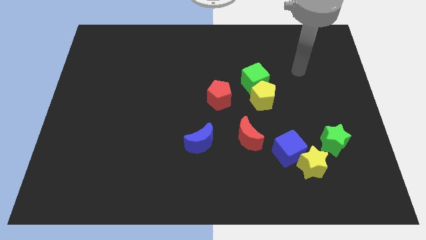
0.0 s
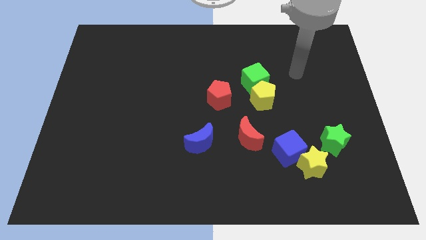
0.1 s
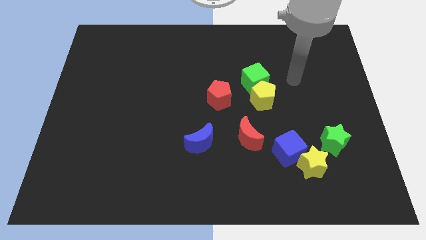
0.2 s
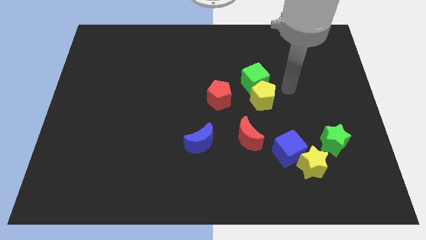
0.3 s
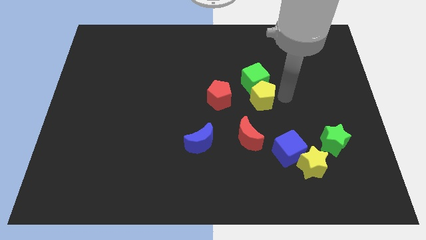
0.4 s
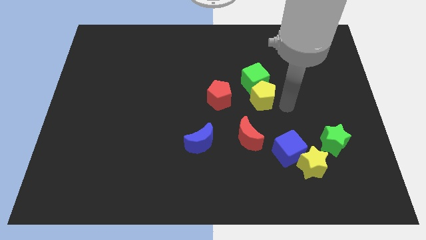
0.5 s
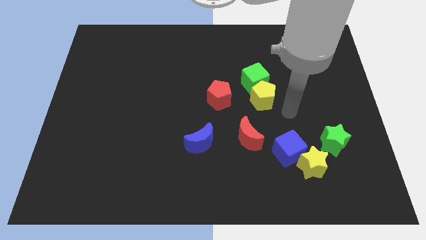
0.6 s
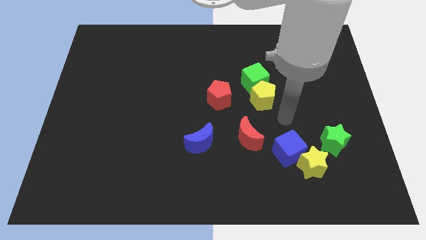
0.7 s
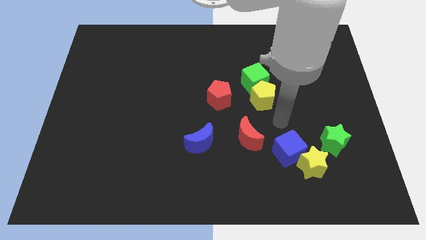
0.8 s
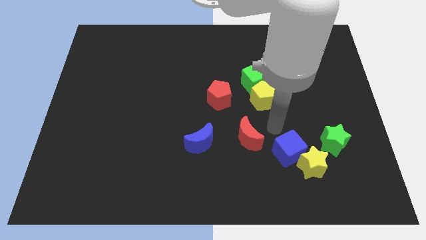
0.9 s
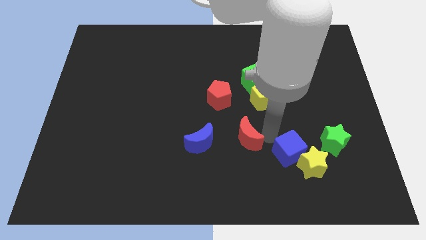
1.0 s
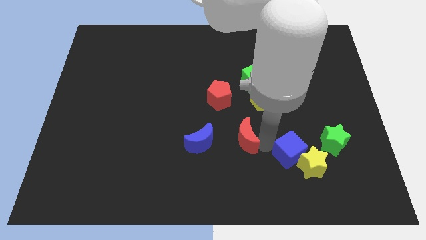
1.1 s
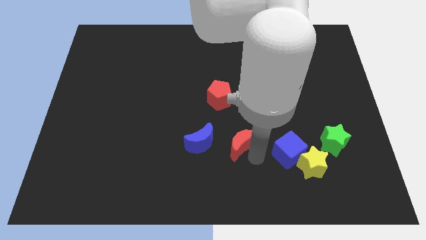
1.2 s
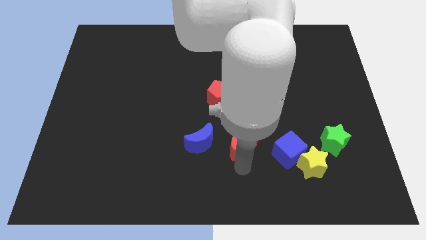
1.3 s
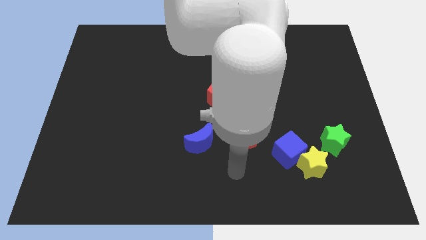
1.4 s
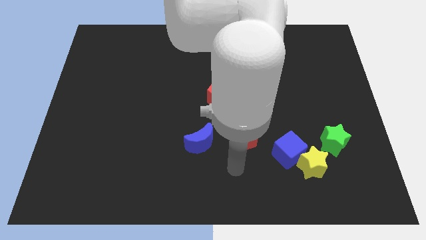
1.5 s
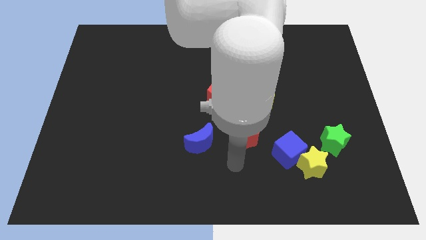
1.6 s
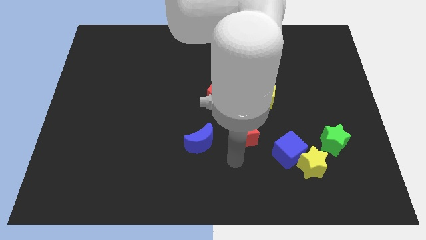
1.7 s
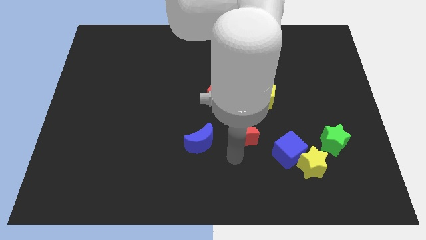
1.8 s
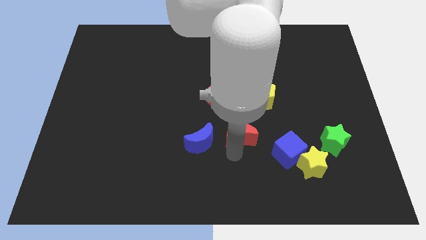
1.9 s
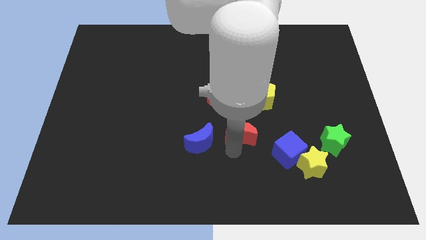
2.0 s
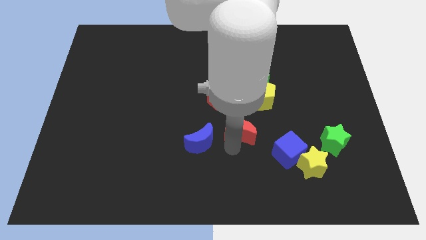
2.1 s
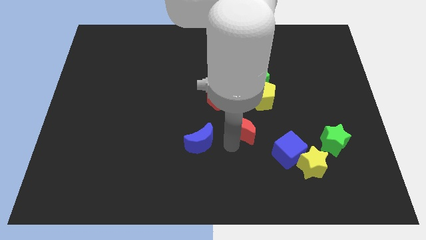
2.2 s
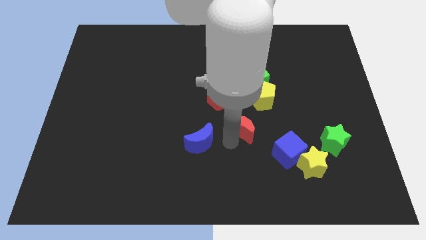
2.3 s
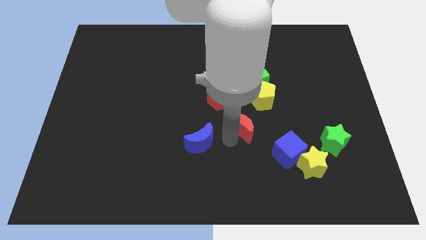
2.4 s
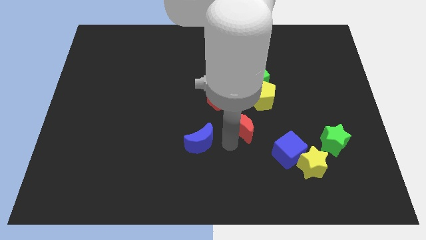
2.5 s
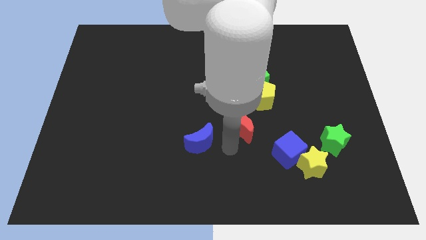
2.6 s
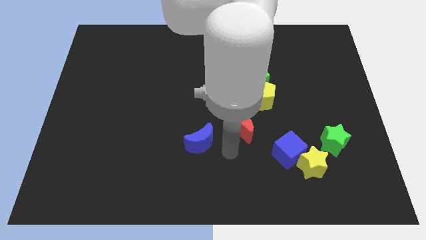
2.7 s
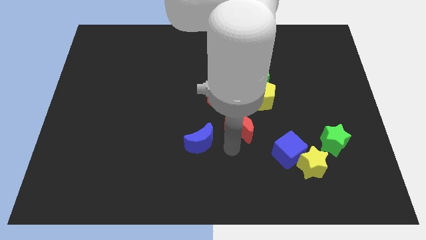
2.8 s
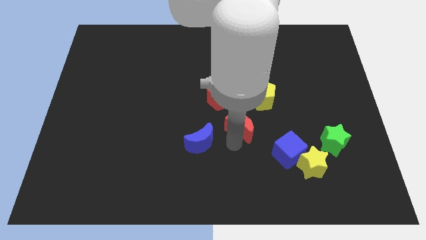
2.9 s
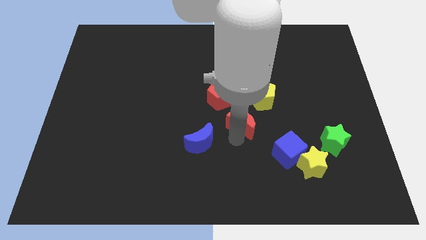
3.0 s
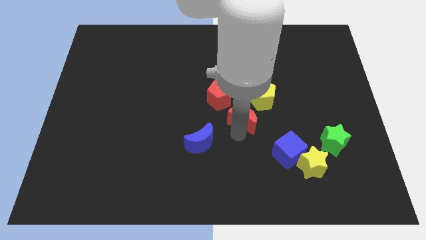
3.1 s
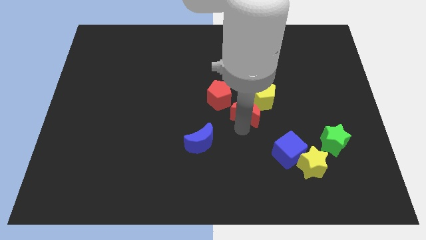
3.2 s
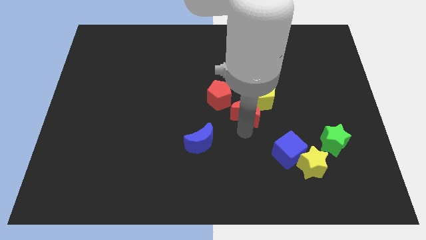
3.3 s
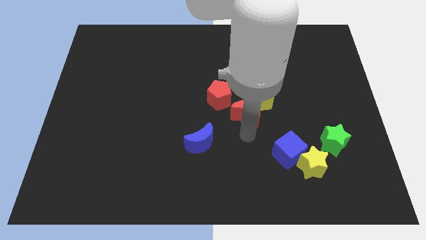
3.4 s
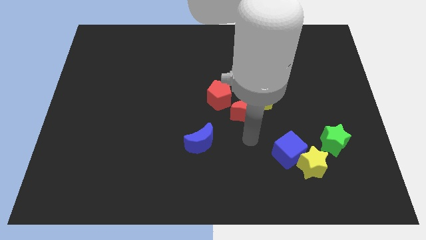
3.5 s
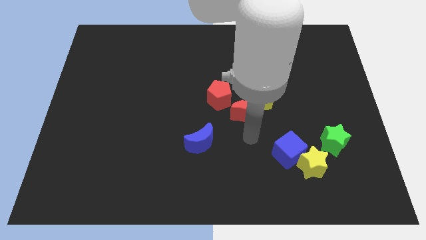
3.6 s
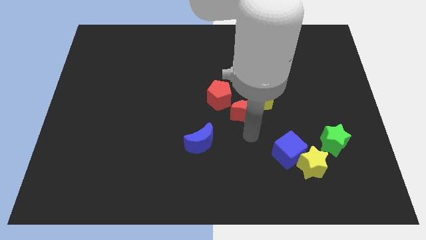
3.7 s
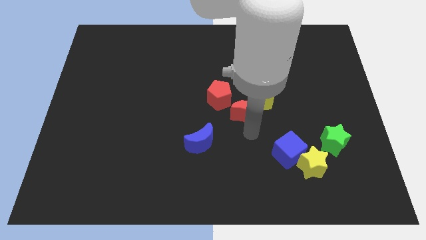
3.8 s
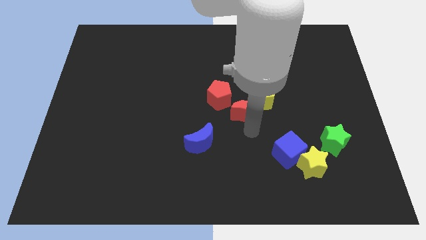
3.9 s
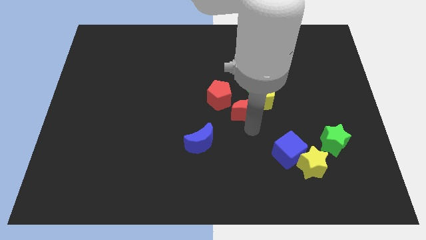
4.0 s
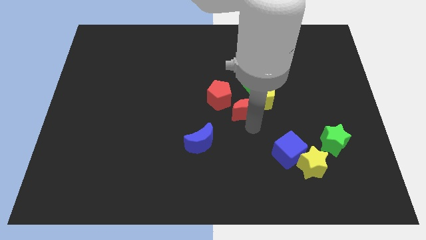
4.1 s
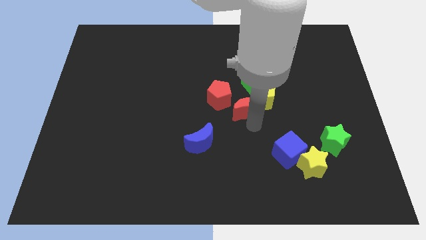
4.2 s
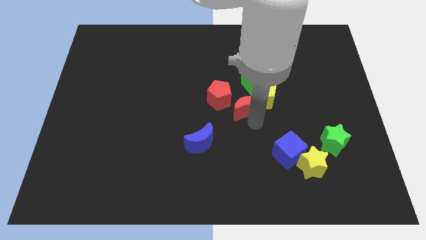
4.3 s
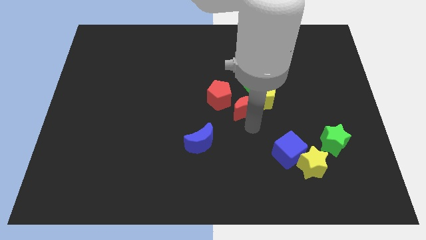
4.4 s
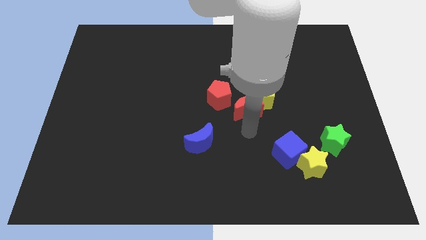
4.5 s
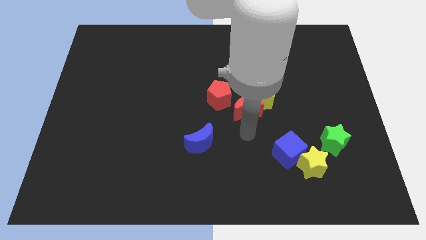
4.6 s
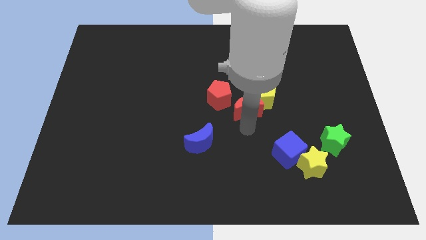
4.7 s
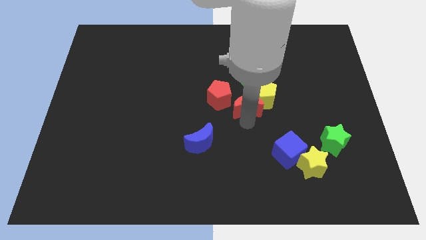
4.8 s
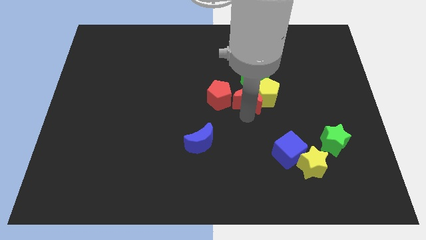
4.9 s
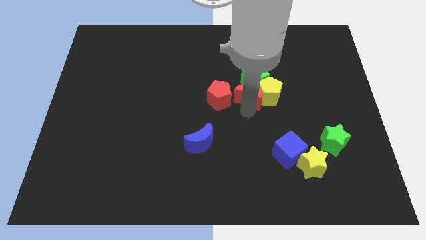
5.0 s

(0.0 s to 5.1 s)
slide the red moon next to the green cube

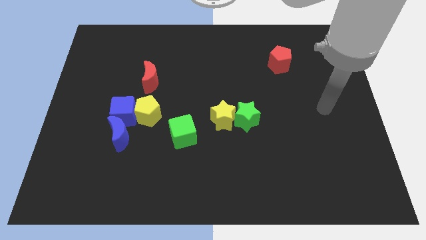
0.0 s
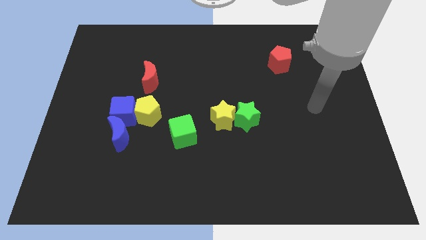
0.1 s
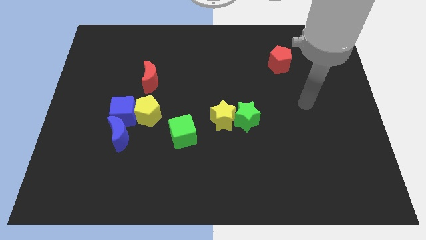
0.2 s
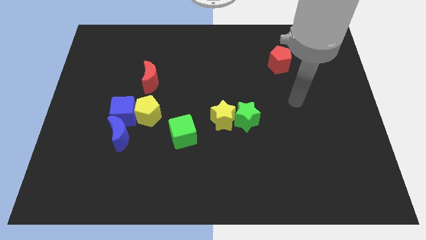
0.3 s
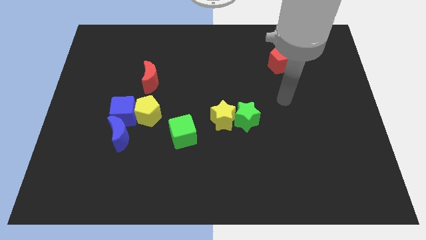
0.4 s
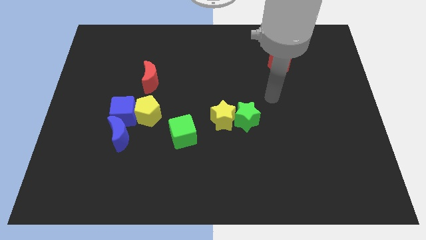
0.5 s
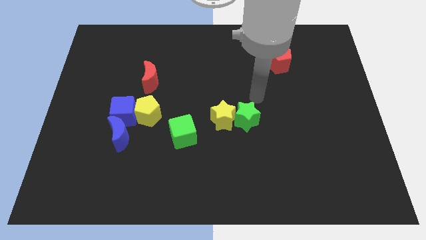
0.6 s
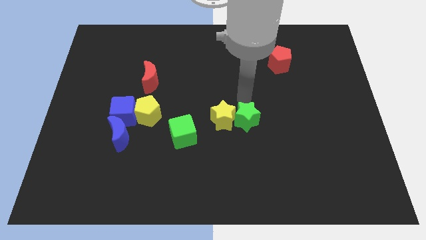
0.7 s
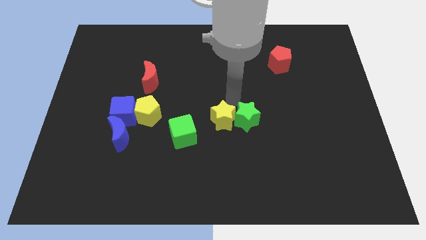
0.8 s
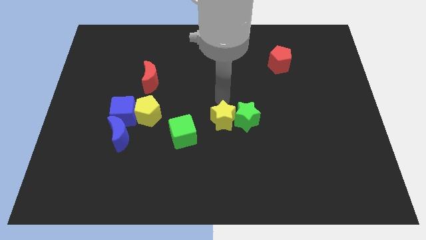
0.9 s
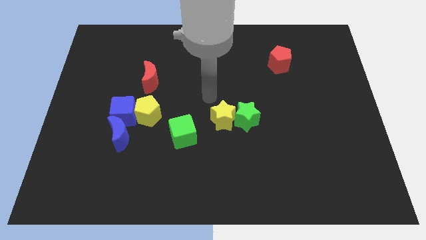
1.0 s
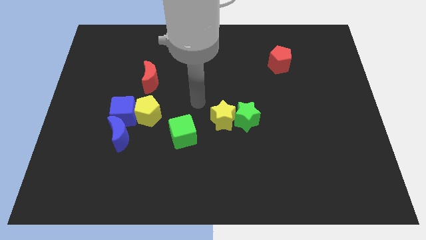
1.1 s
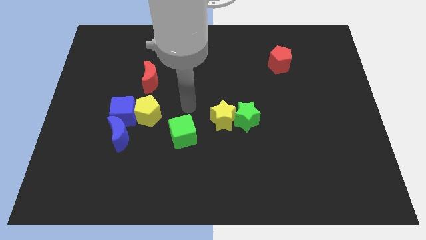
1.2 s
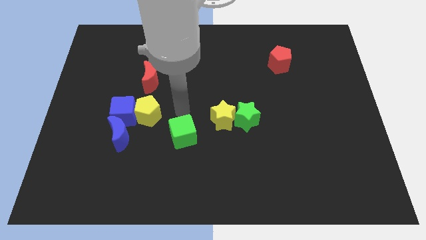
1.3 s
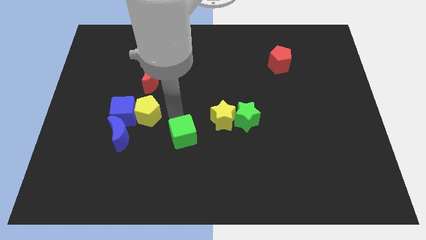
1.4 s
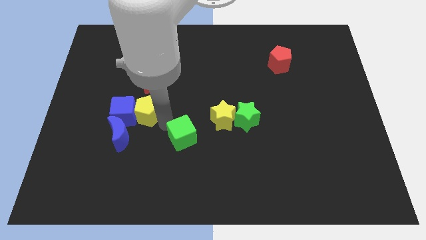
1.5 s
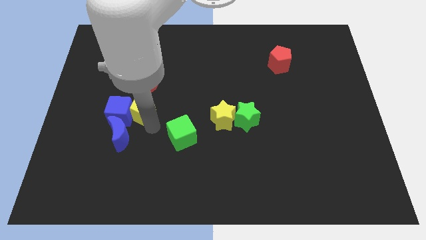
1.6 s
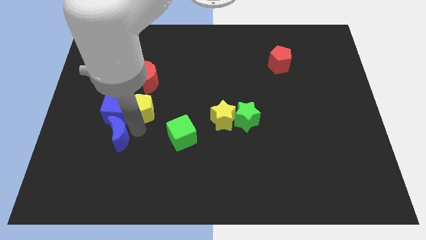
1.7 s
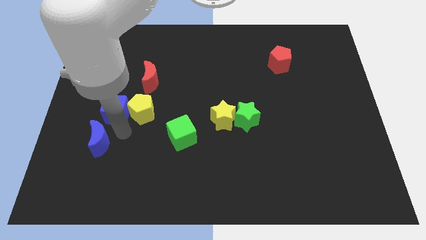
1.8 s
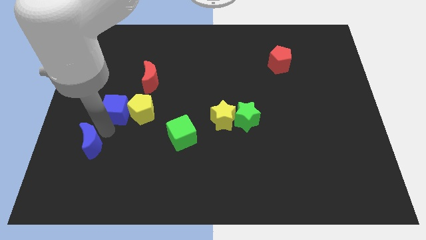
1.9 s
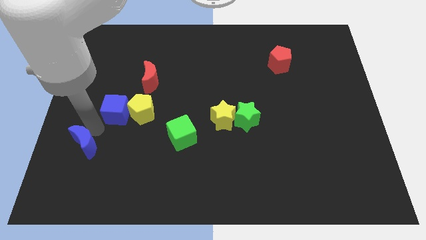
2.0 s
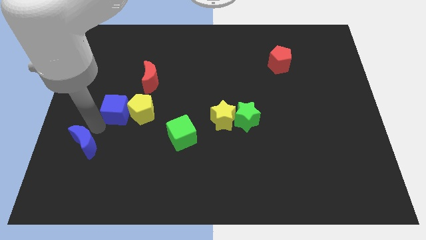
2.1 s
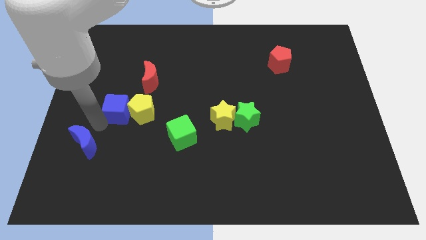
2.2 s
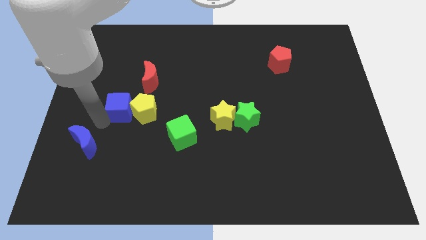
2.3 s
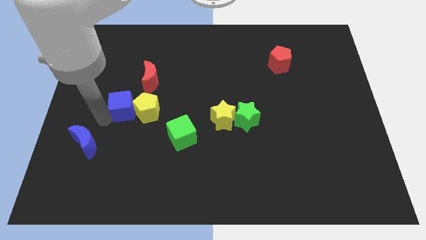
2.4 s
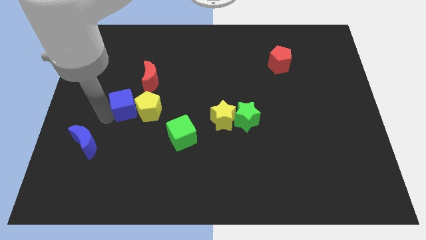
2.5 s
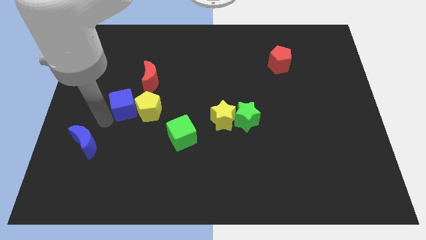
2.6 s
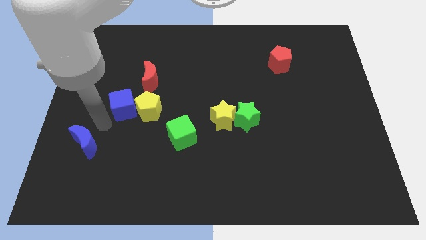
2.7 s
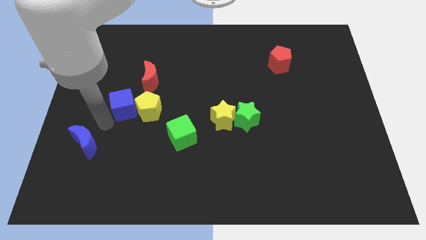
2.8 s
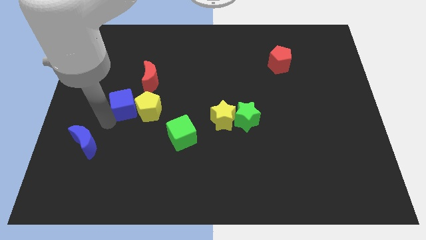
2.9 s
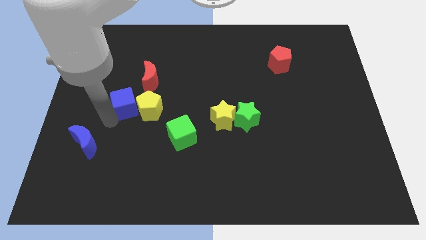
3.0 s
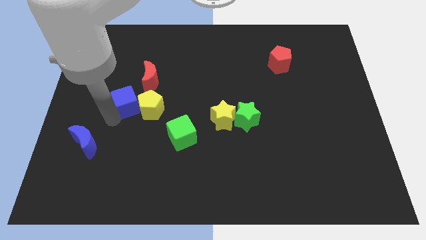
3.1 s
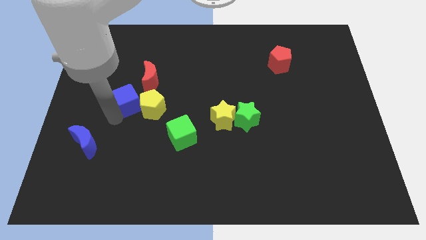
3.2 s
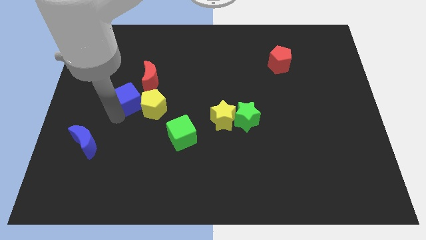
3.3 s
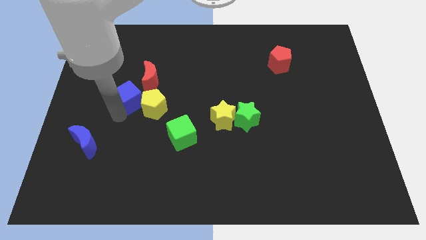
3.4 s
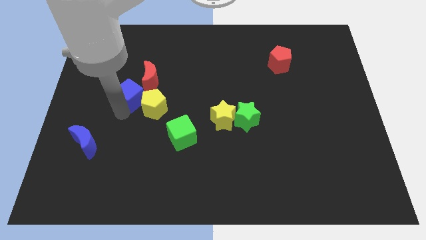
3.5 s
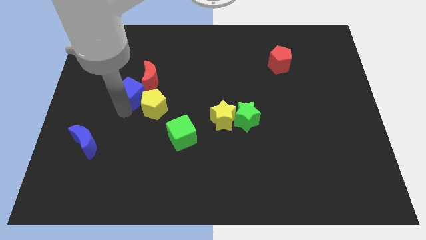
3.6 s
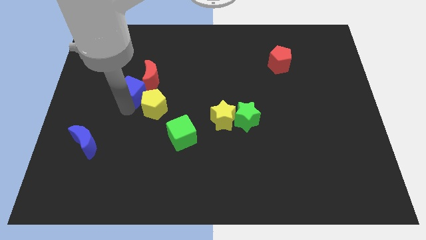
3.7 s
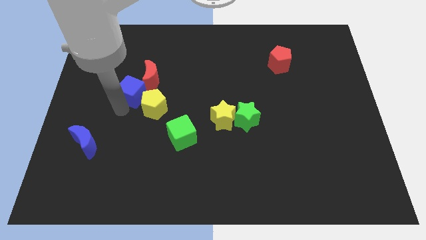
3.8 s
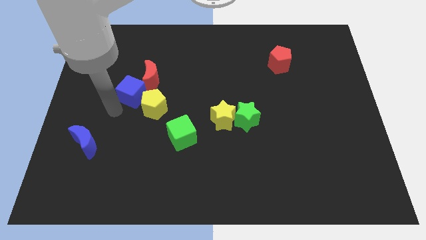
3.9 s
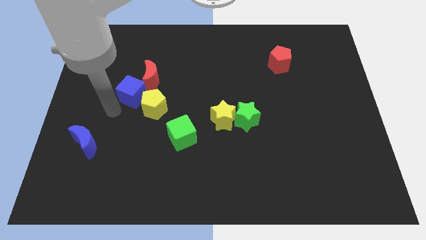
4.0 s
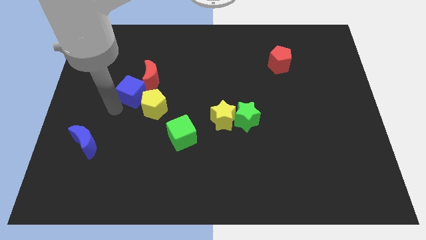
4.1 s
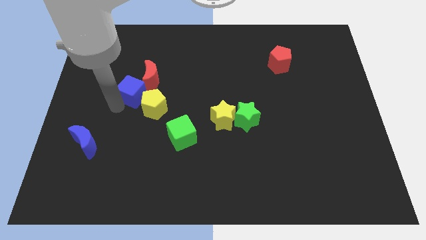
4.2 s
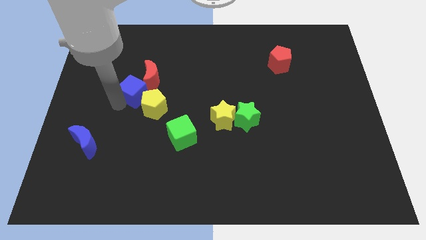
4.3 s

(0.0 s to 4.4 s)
slide the blue cube close to the red moon
